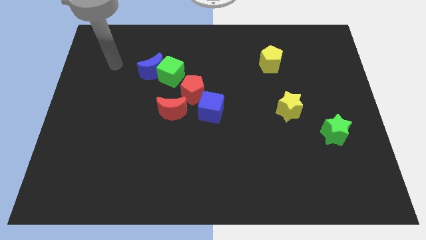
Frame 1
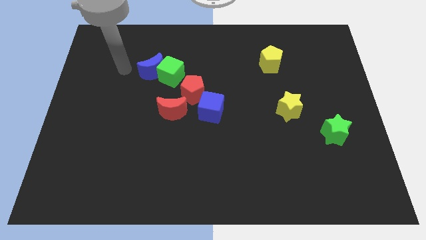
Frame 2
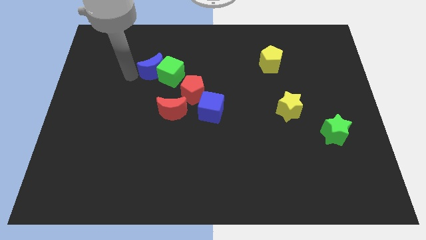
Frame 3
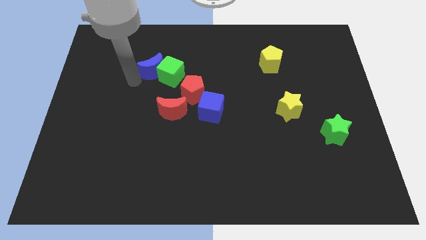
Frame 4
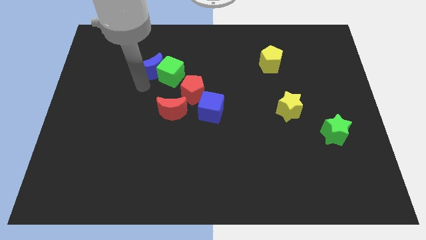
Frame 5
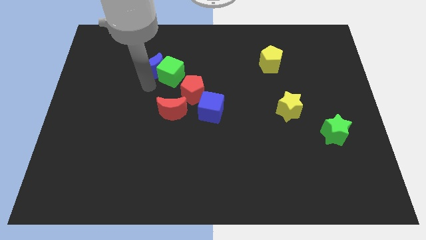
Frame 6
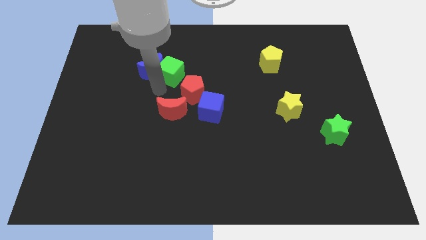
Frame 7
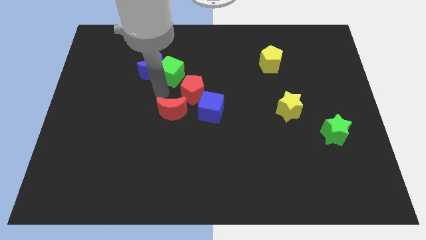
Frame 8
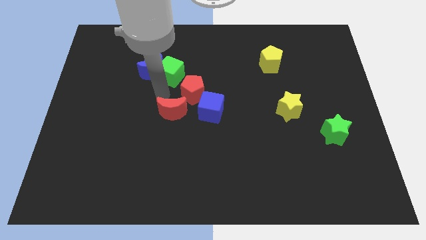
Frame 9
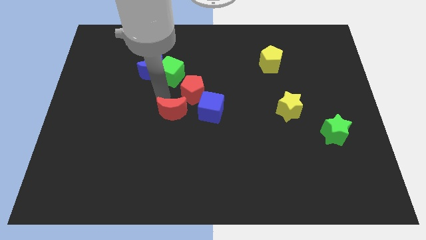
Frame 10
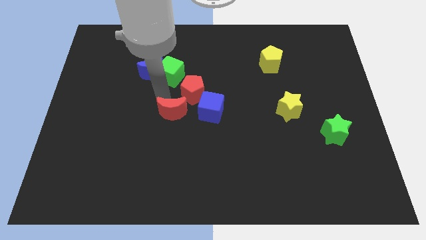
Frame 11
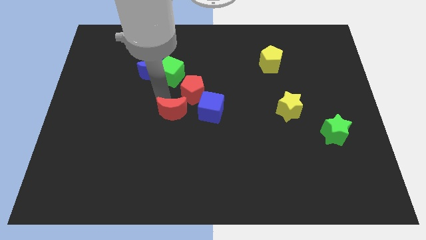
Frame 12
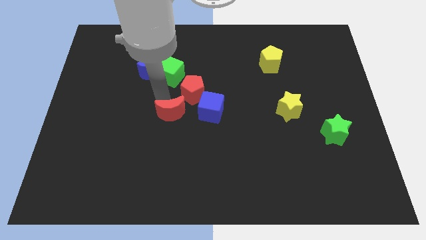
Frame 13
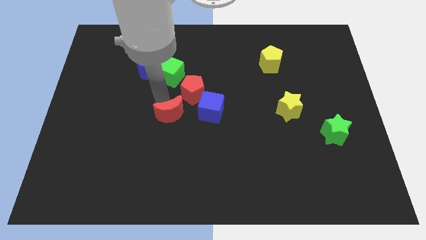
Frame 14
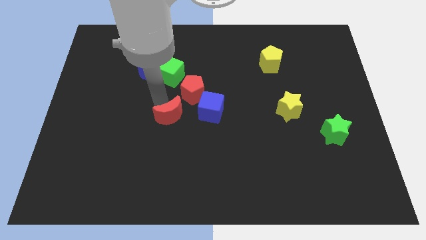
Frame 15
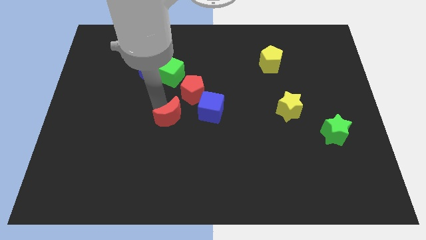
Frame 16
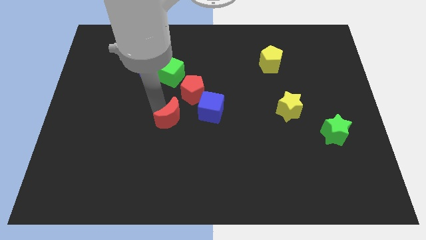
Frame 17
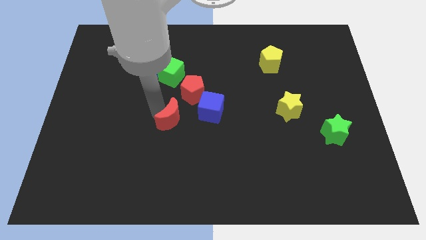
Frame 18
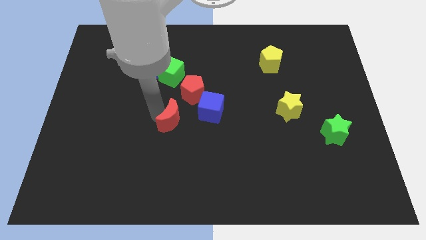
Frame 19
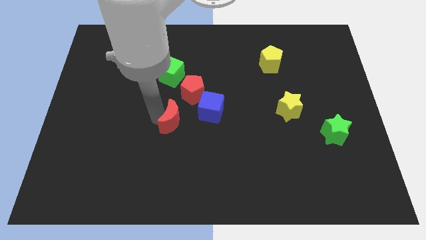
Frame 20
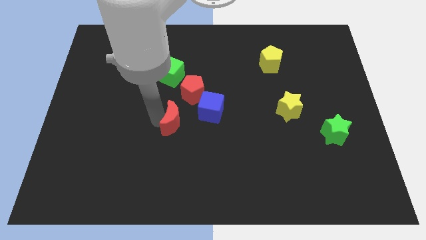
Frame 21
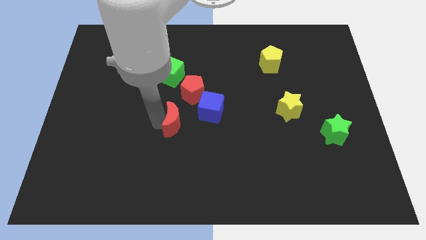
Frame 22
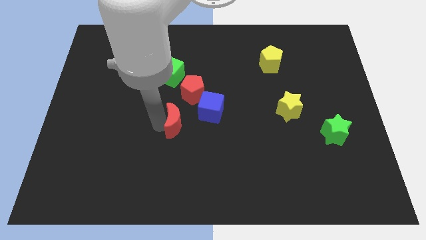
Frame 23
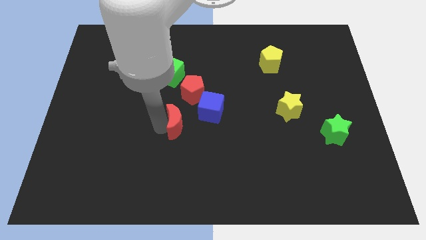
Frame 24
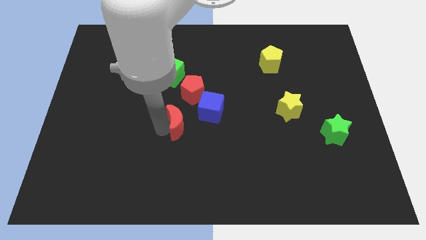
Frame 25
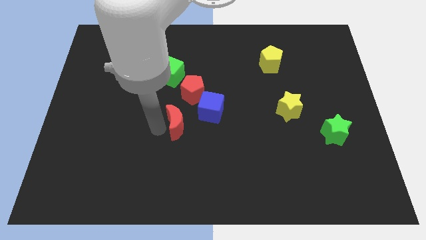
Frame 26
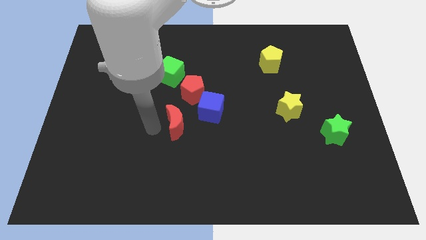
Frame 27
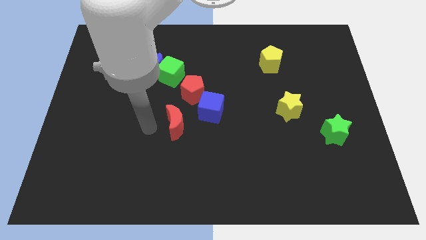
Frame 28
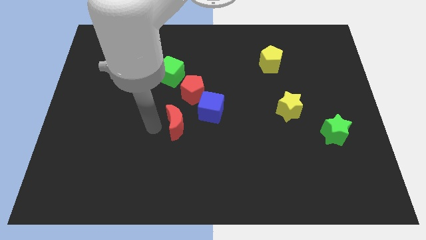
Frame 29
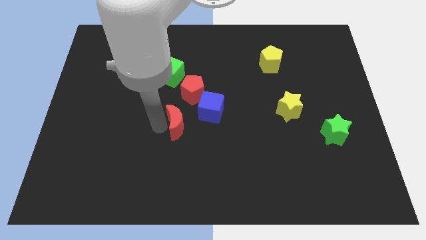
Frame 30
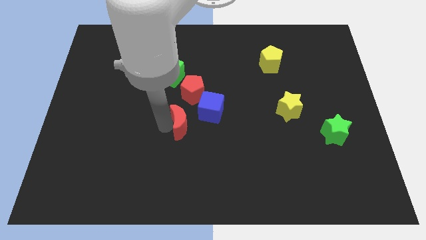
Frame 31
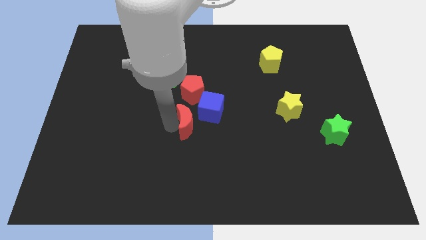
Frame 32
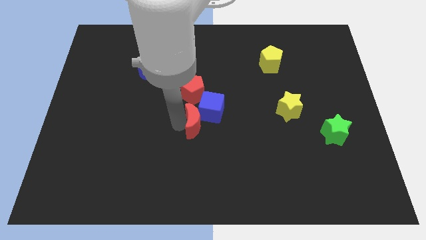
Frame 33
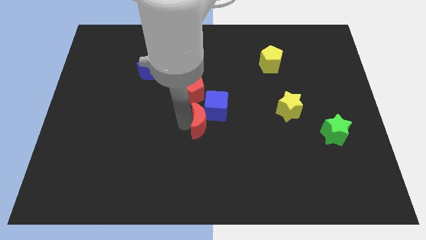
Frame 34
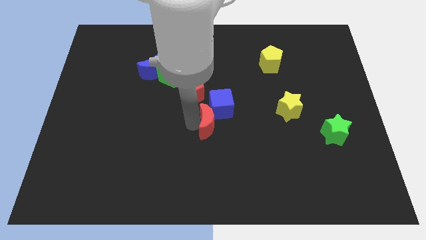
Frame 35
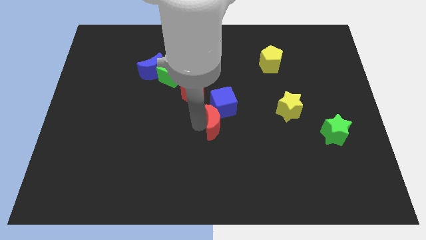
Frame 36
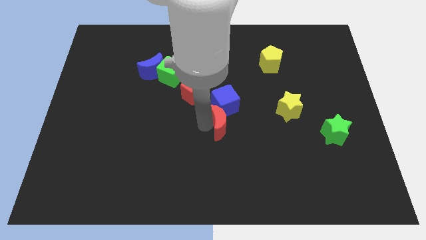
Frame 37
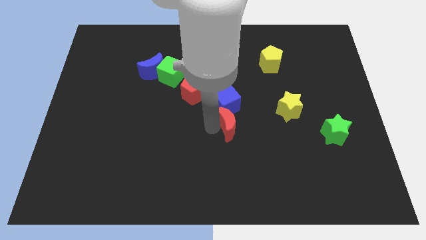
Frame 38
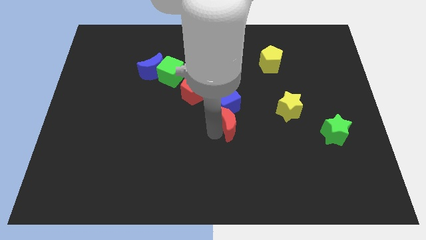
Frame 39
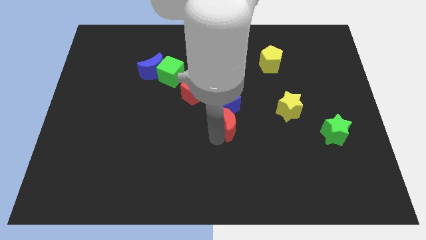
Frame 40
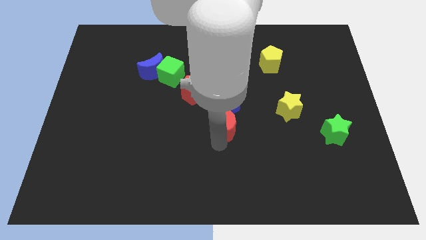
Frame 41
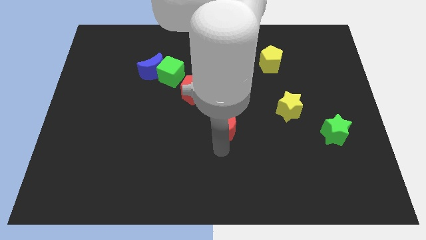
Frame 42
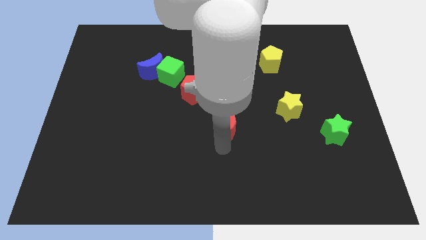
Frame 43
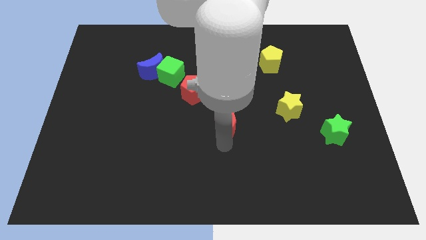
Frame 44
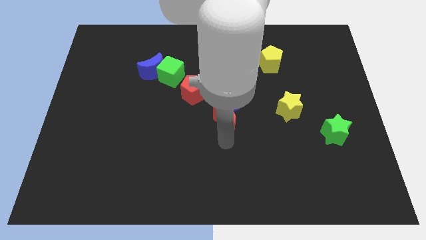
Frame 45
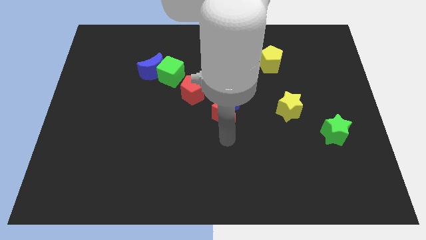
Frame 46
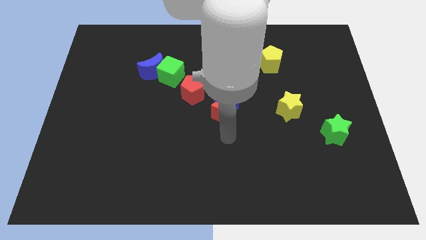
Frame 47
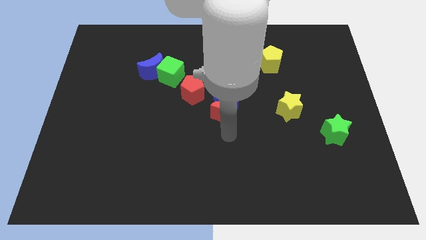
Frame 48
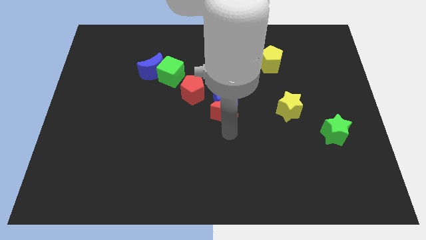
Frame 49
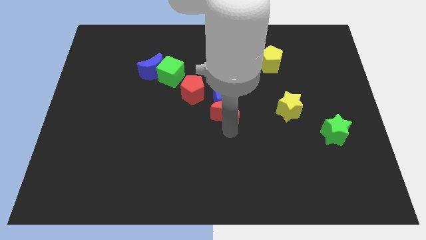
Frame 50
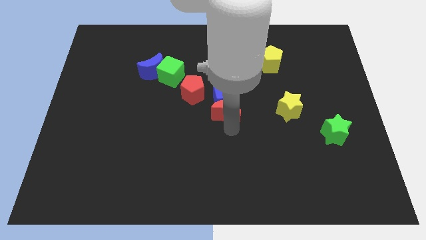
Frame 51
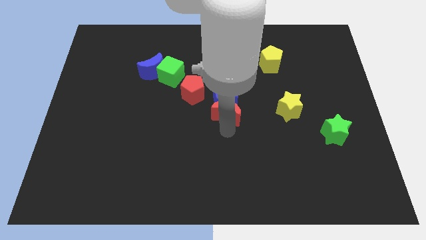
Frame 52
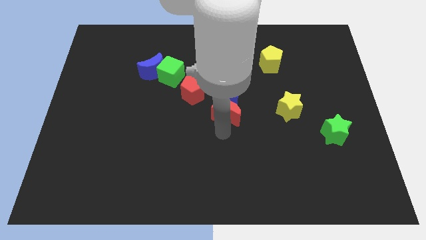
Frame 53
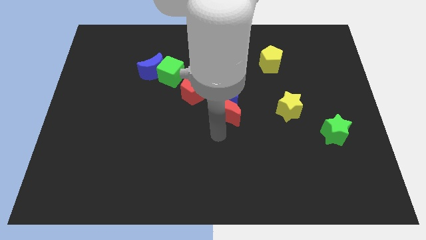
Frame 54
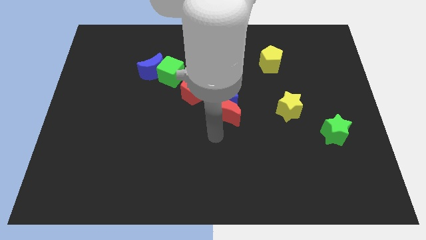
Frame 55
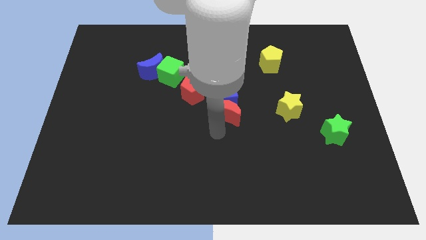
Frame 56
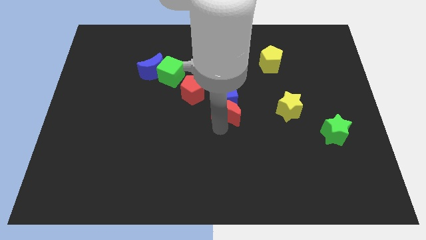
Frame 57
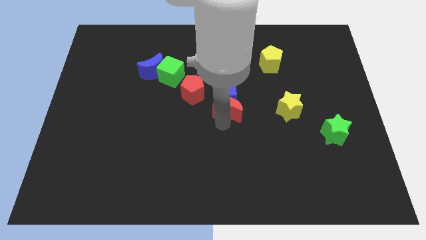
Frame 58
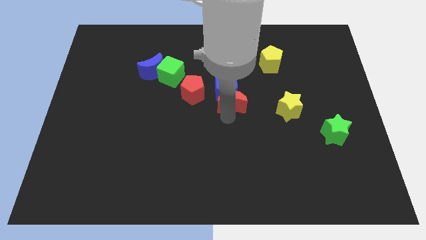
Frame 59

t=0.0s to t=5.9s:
slightly slide the red moon upwards and to the right

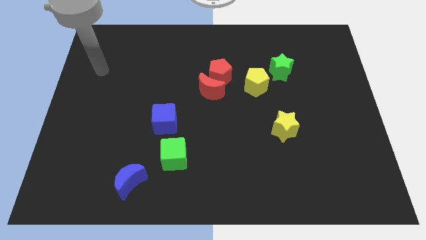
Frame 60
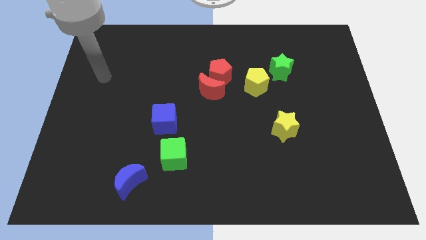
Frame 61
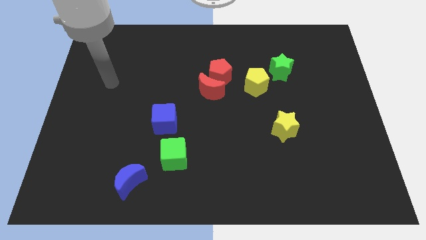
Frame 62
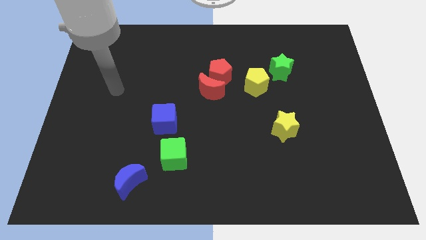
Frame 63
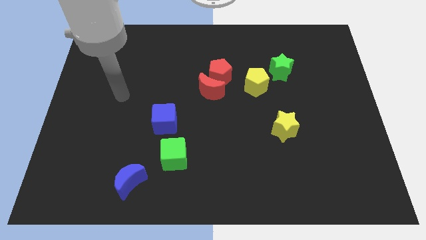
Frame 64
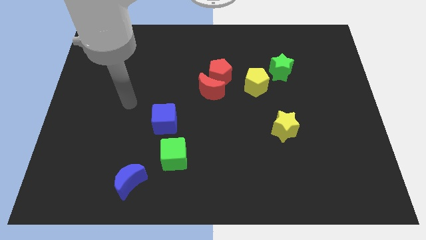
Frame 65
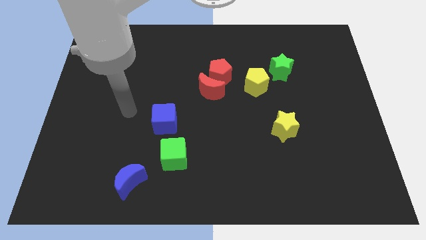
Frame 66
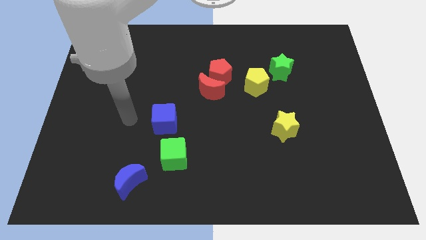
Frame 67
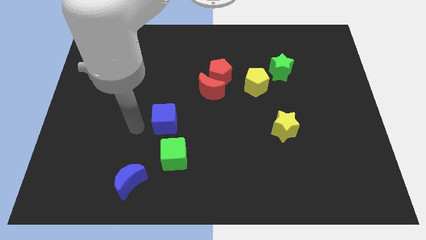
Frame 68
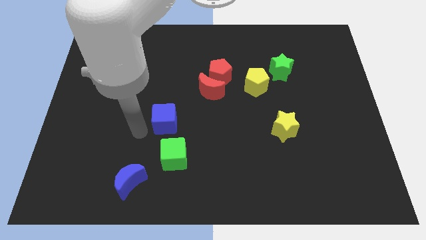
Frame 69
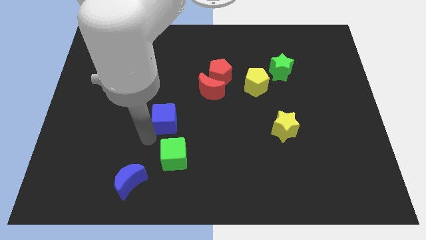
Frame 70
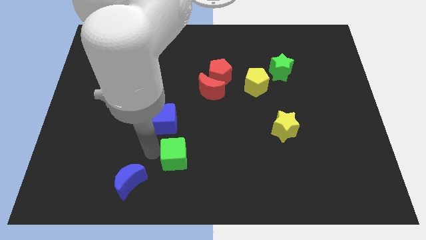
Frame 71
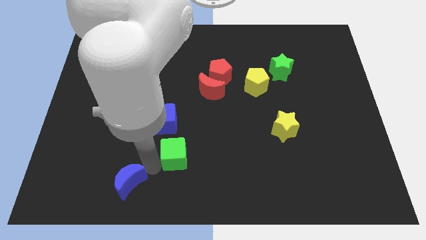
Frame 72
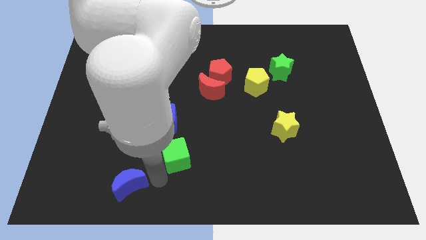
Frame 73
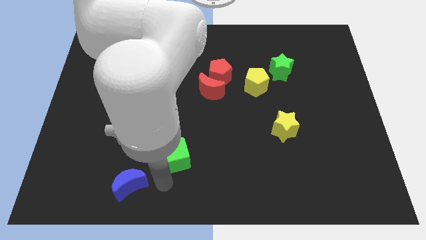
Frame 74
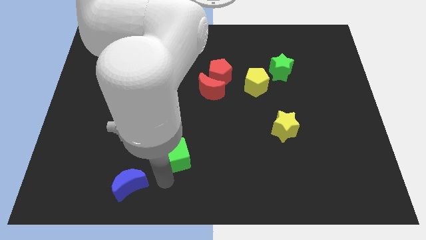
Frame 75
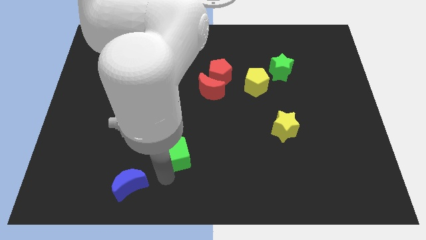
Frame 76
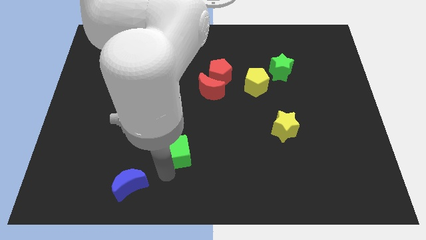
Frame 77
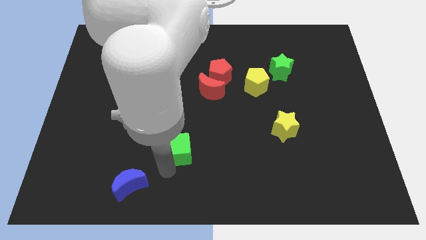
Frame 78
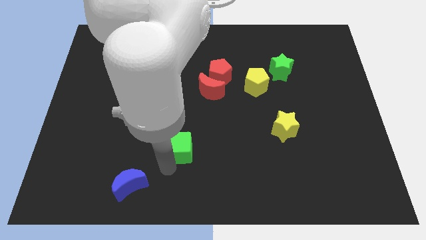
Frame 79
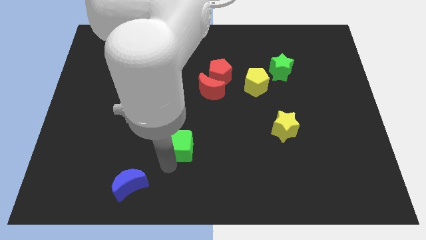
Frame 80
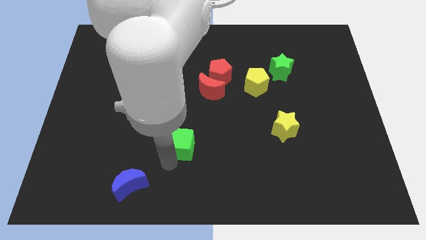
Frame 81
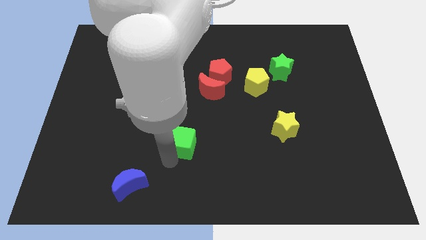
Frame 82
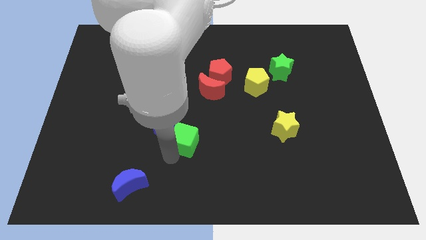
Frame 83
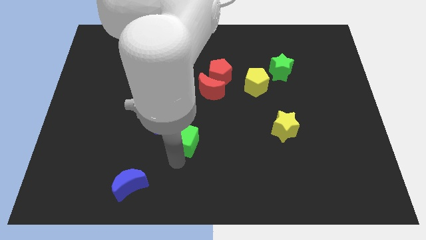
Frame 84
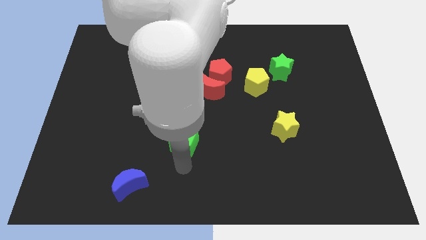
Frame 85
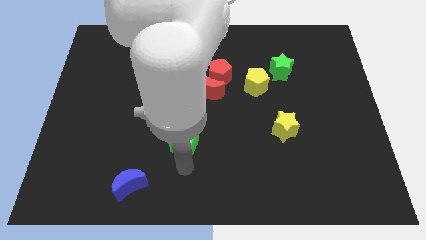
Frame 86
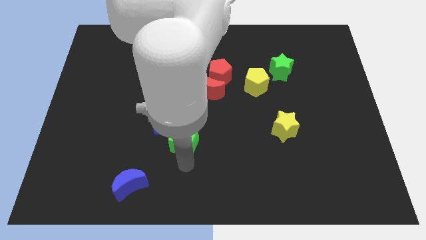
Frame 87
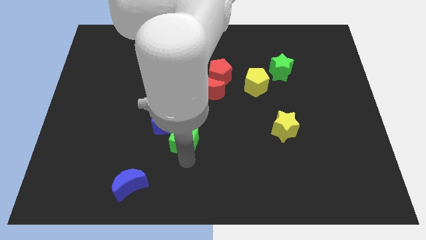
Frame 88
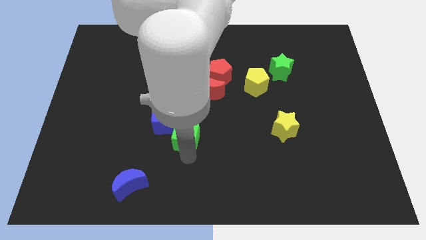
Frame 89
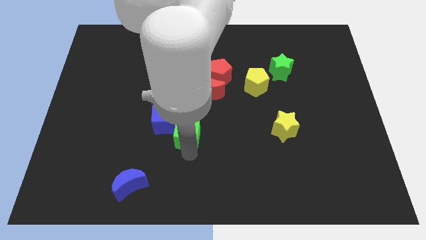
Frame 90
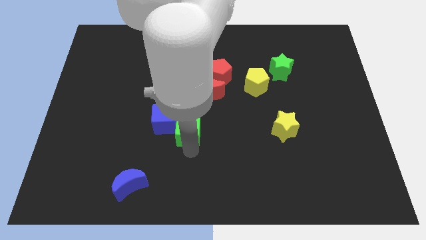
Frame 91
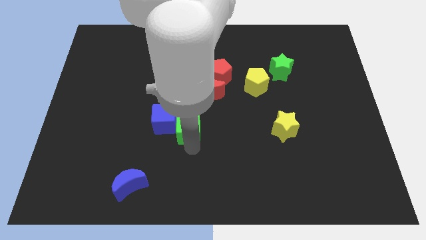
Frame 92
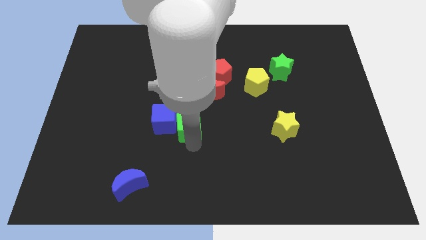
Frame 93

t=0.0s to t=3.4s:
move the green cube somewhat up
